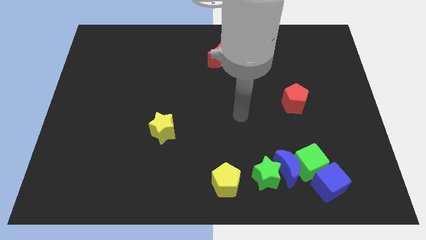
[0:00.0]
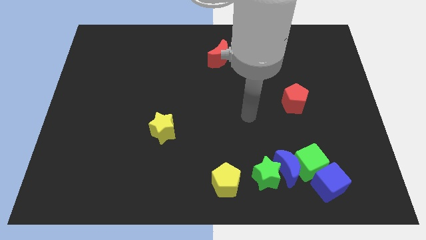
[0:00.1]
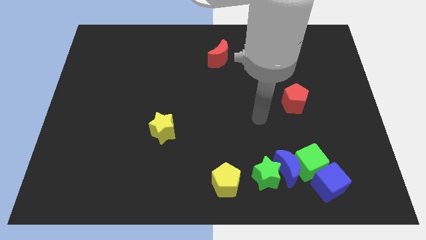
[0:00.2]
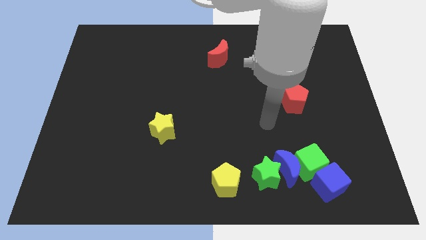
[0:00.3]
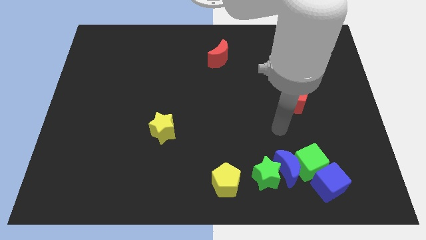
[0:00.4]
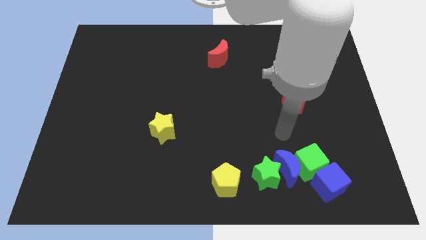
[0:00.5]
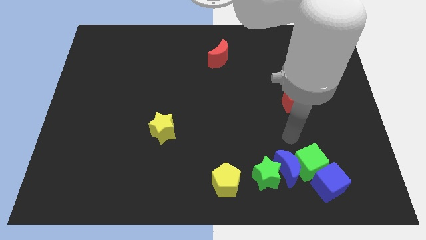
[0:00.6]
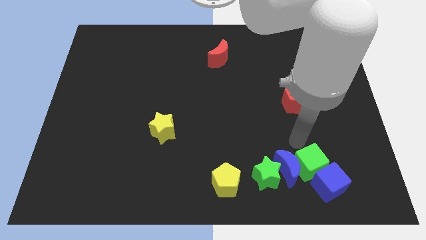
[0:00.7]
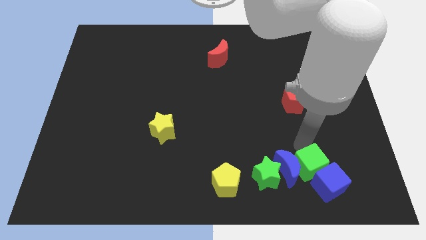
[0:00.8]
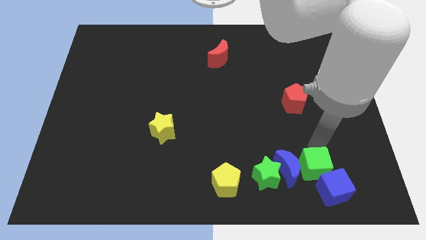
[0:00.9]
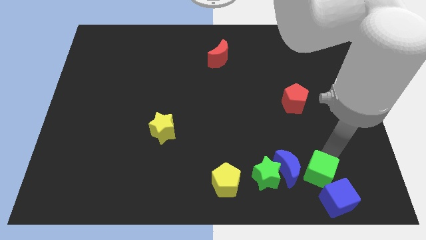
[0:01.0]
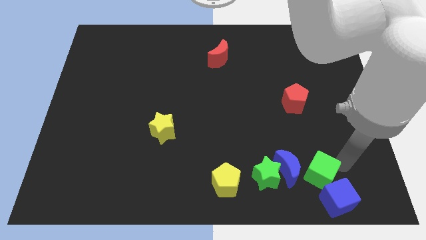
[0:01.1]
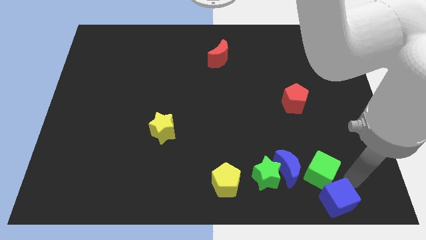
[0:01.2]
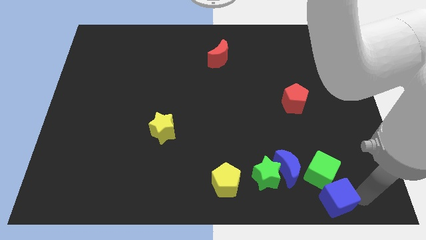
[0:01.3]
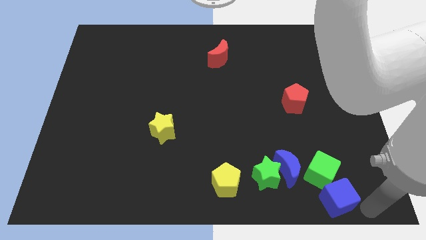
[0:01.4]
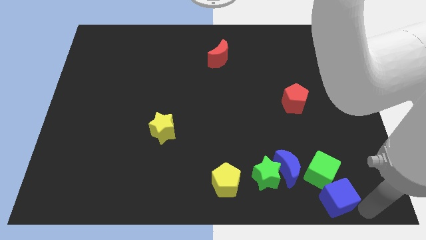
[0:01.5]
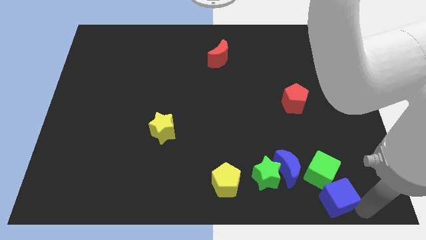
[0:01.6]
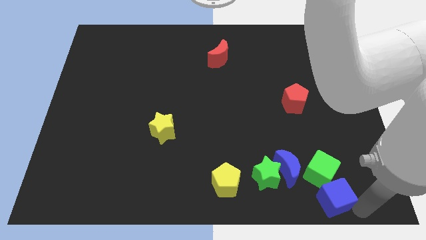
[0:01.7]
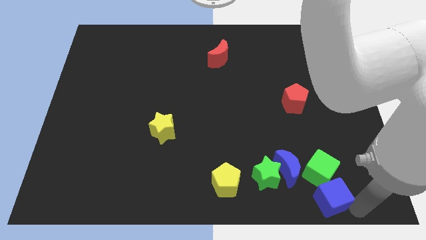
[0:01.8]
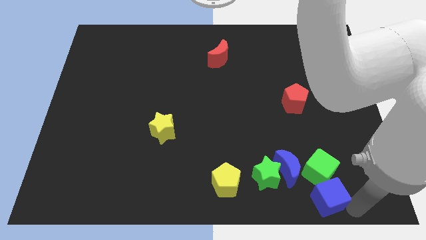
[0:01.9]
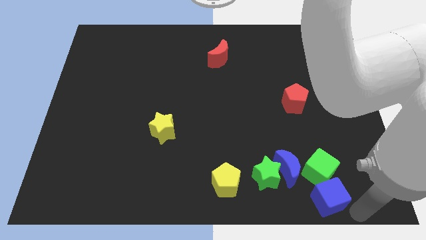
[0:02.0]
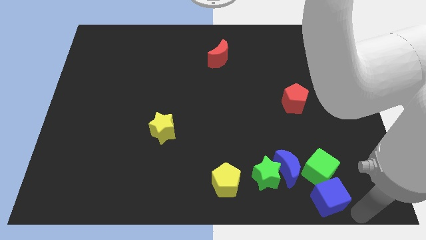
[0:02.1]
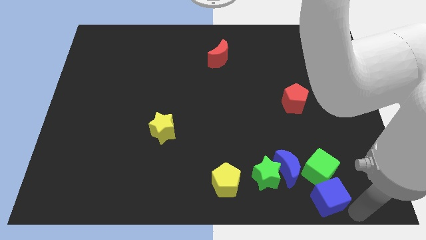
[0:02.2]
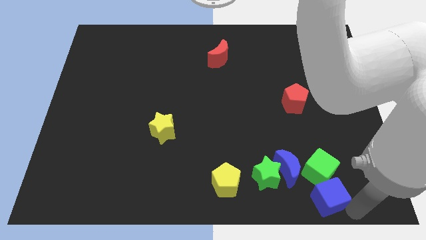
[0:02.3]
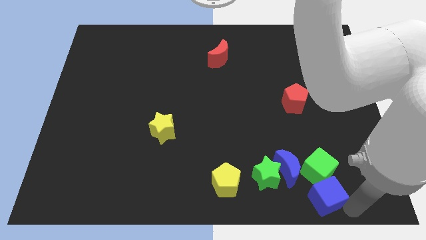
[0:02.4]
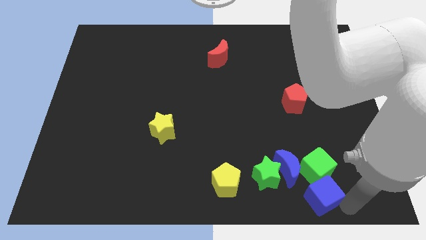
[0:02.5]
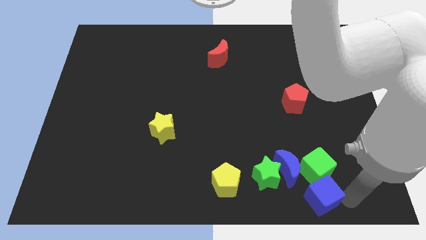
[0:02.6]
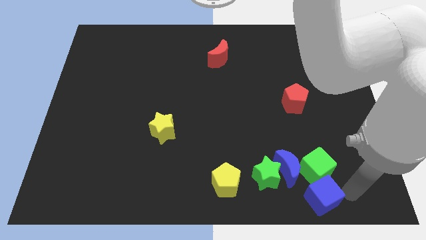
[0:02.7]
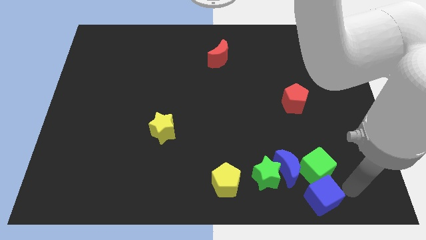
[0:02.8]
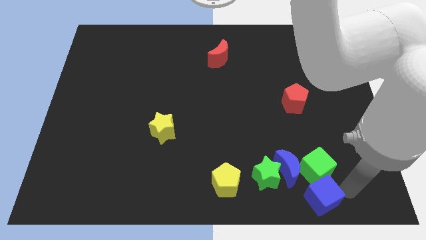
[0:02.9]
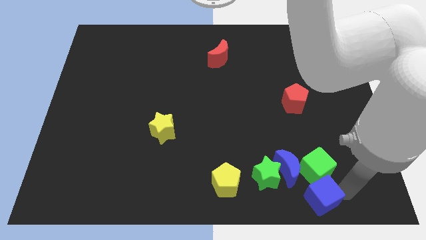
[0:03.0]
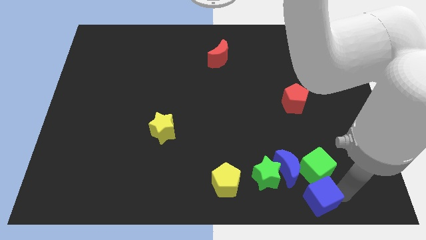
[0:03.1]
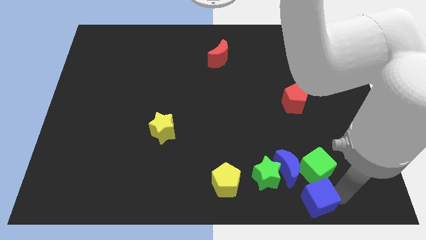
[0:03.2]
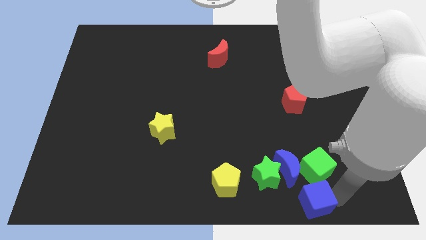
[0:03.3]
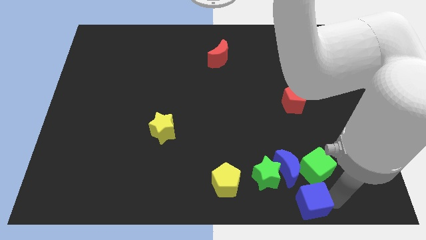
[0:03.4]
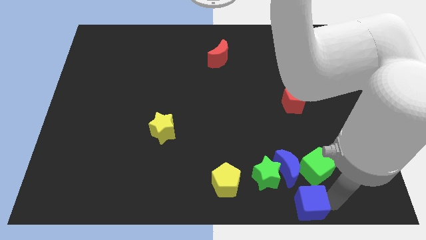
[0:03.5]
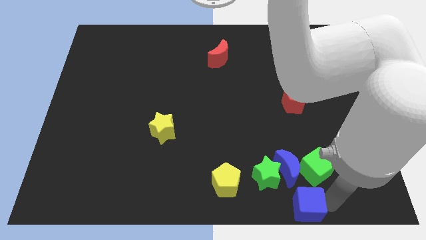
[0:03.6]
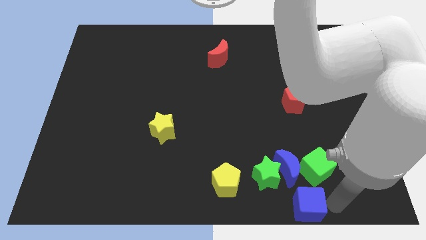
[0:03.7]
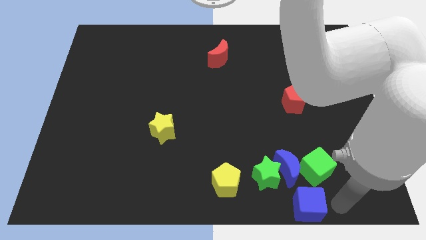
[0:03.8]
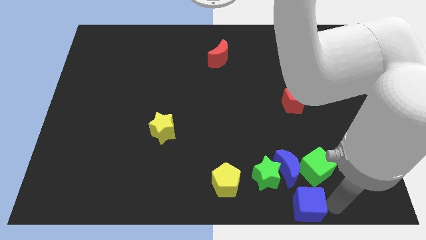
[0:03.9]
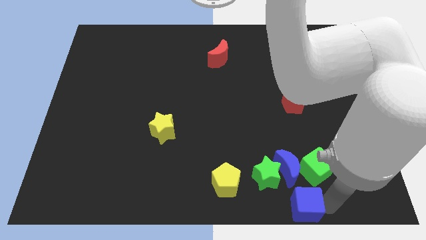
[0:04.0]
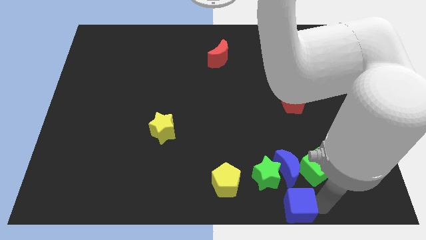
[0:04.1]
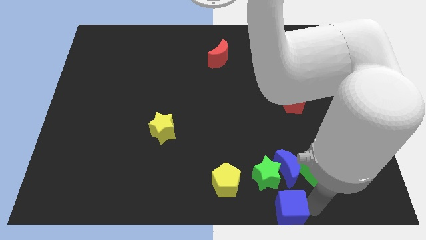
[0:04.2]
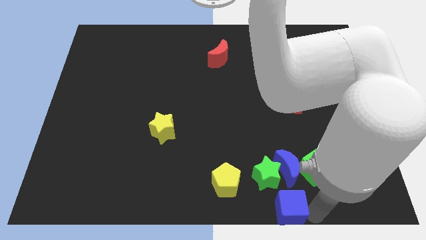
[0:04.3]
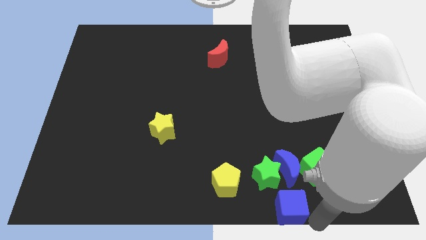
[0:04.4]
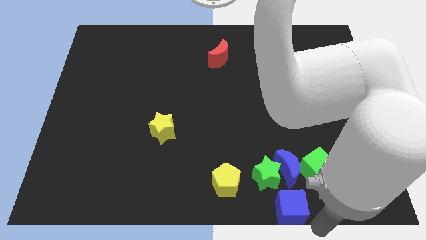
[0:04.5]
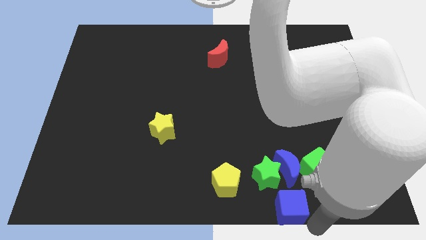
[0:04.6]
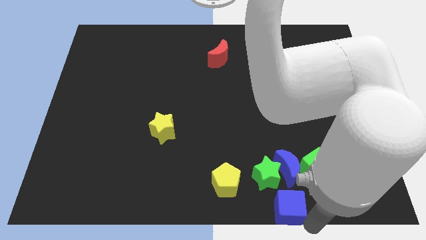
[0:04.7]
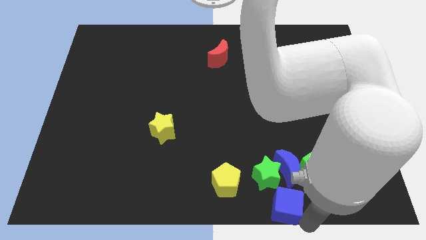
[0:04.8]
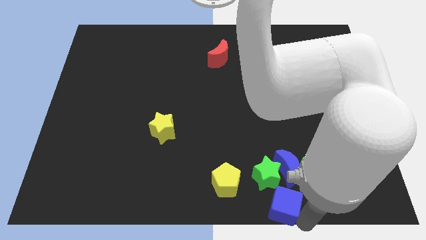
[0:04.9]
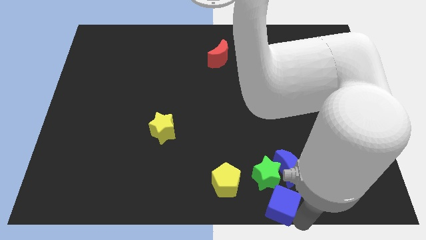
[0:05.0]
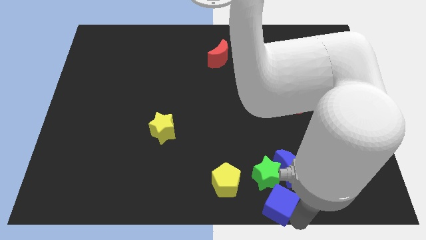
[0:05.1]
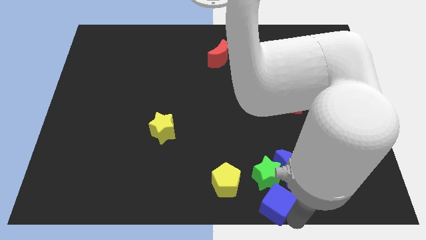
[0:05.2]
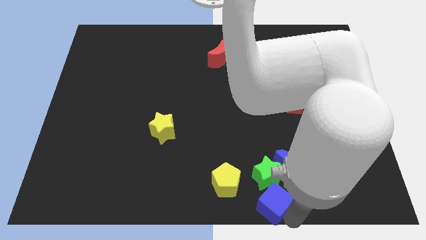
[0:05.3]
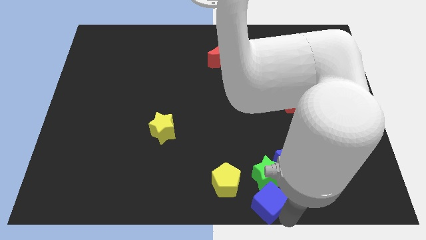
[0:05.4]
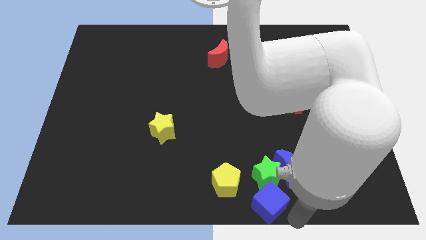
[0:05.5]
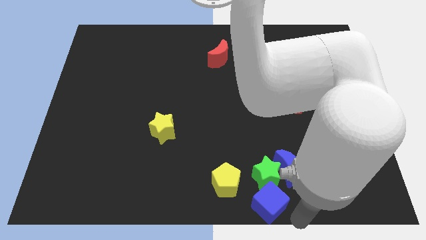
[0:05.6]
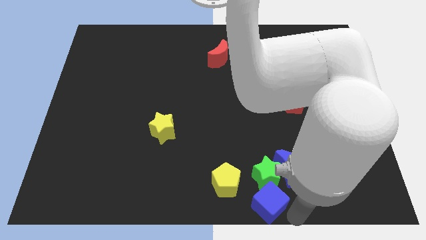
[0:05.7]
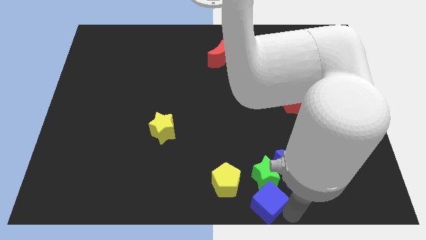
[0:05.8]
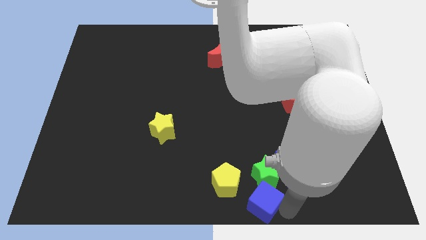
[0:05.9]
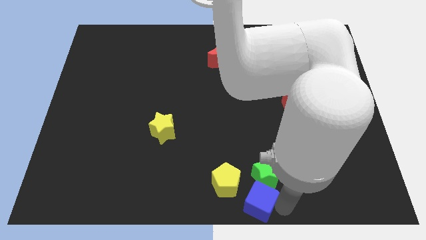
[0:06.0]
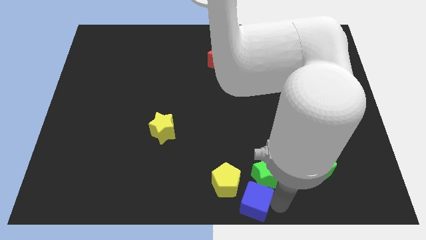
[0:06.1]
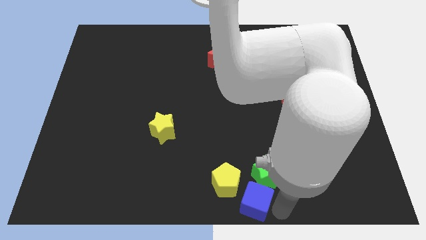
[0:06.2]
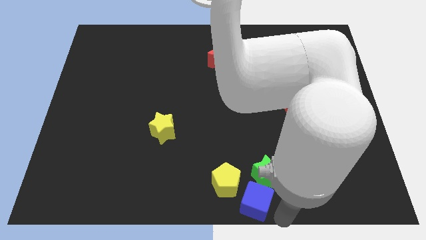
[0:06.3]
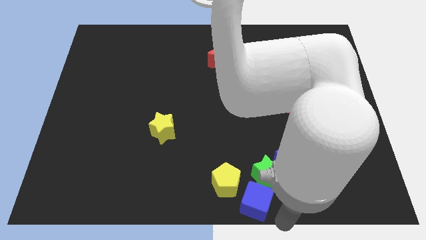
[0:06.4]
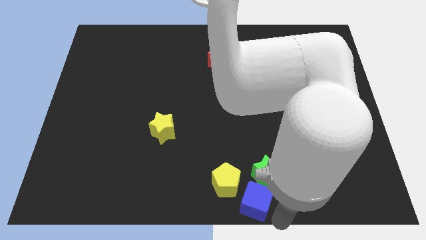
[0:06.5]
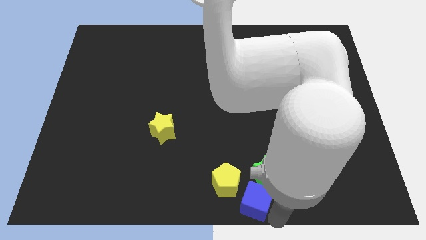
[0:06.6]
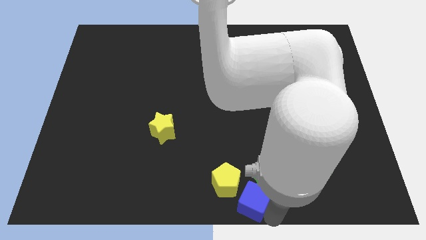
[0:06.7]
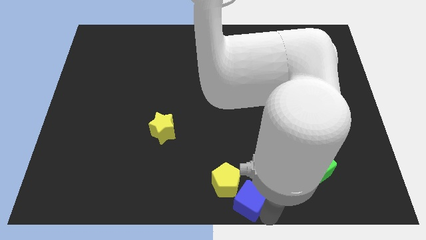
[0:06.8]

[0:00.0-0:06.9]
put the blue cube next to the yellow pentagon

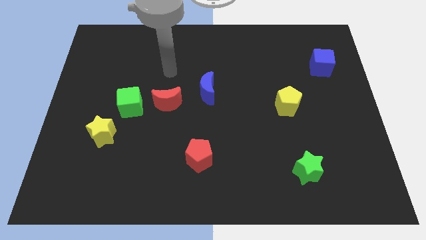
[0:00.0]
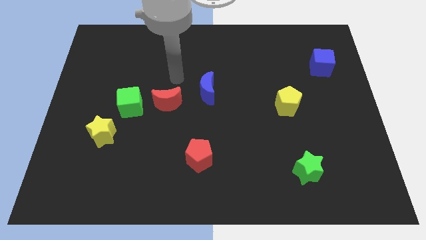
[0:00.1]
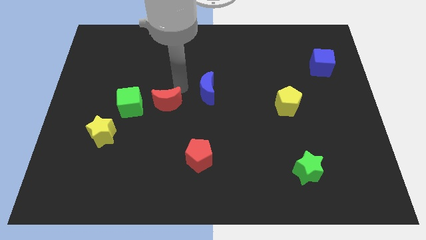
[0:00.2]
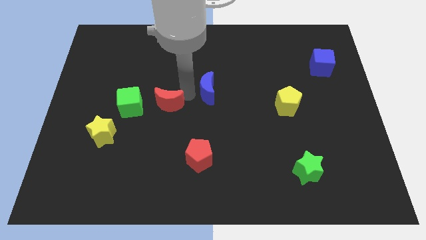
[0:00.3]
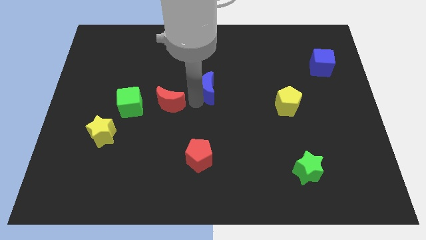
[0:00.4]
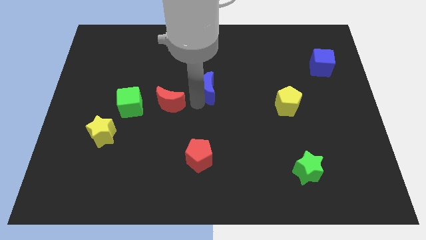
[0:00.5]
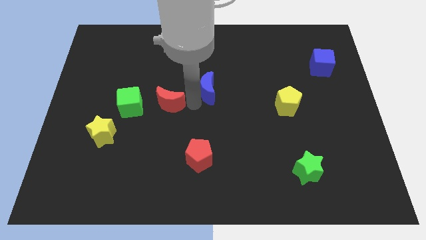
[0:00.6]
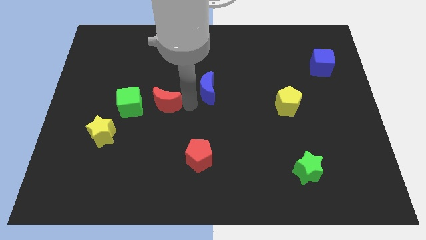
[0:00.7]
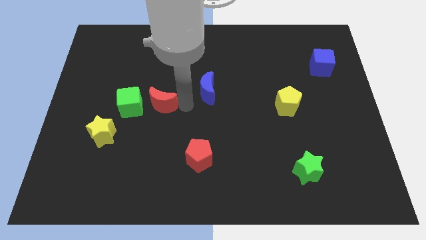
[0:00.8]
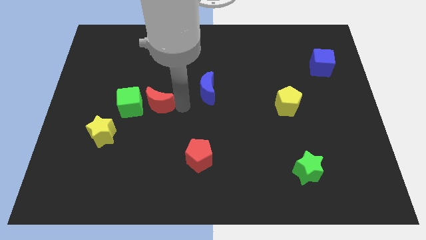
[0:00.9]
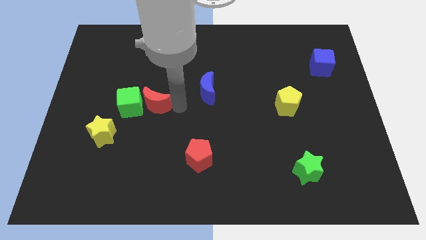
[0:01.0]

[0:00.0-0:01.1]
move the red moon towards the green cube
